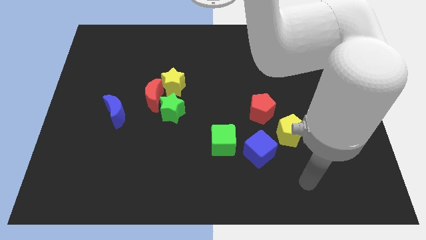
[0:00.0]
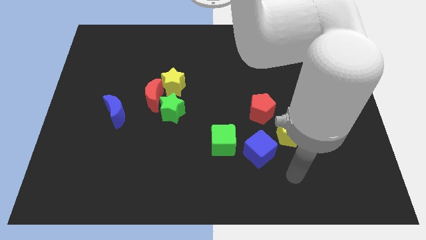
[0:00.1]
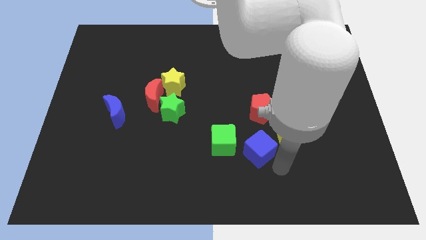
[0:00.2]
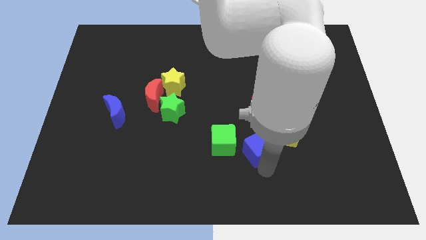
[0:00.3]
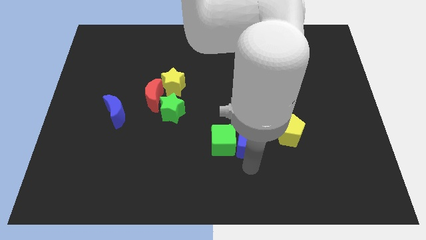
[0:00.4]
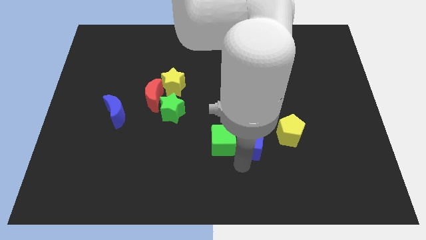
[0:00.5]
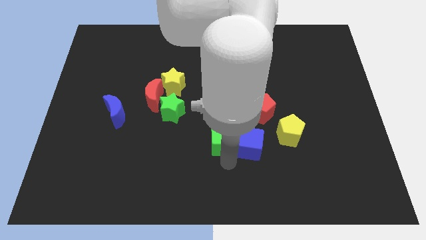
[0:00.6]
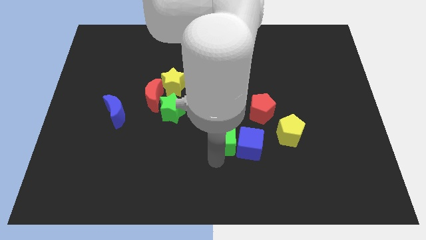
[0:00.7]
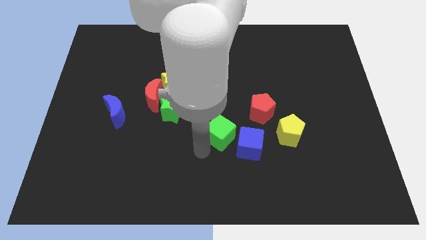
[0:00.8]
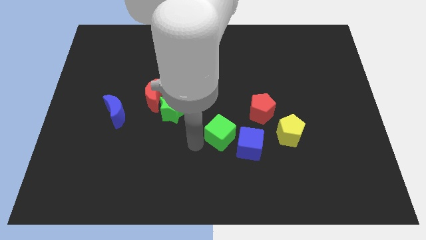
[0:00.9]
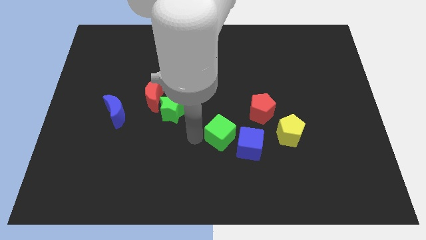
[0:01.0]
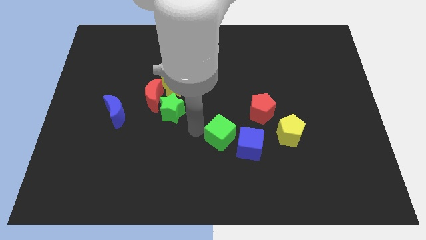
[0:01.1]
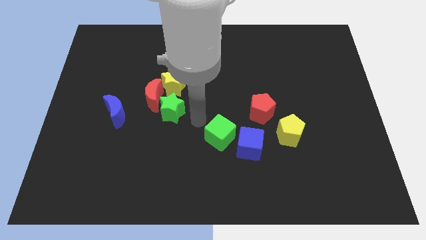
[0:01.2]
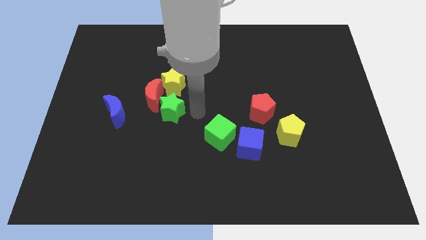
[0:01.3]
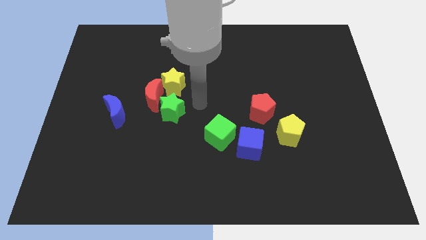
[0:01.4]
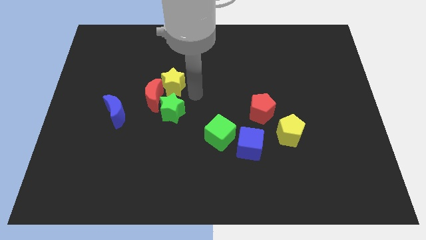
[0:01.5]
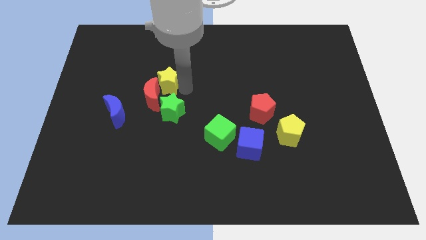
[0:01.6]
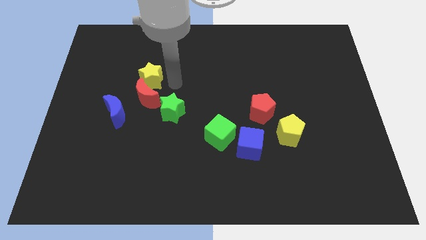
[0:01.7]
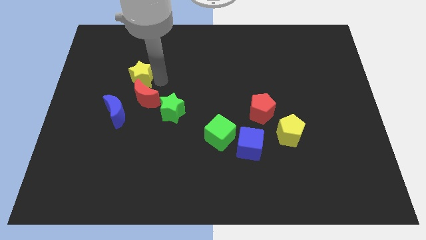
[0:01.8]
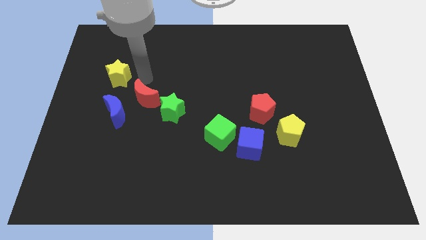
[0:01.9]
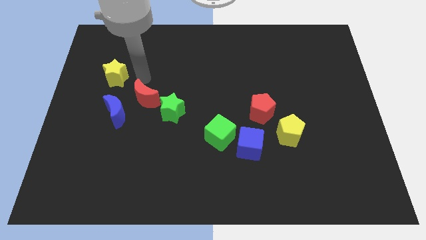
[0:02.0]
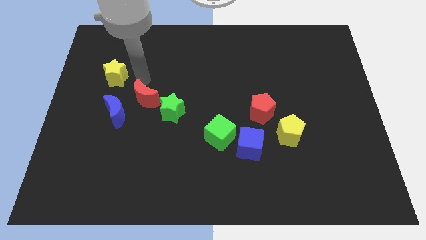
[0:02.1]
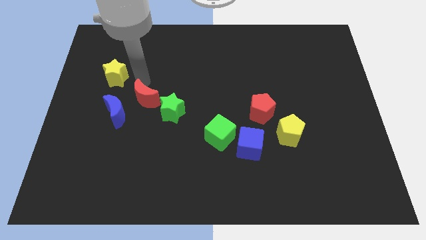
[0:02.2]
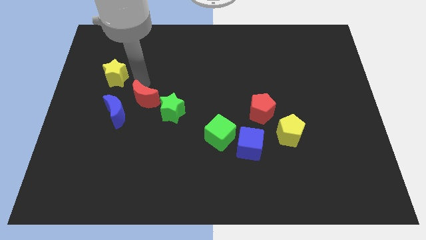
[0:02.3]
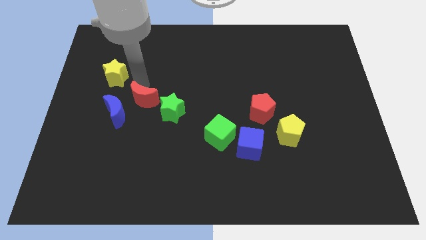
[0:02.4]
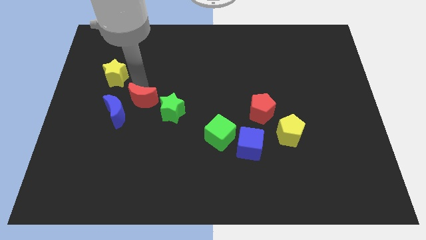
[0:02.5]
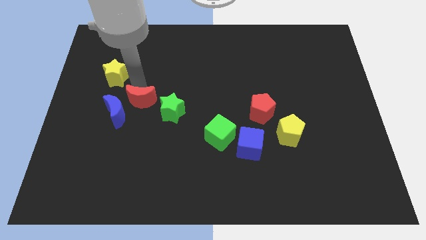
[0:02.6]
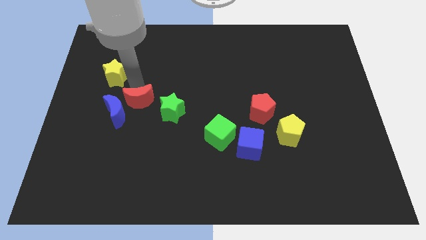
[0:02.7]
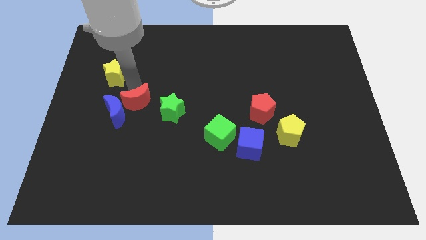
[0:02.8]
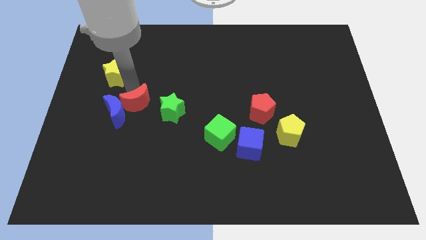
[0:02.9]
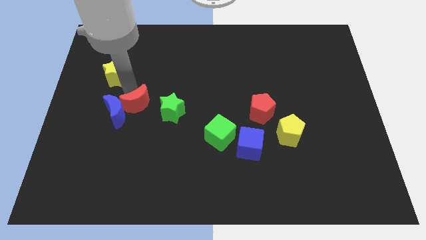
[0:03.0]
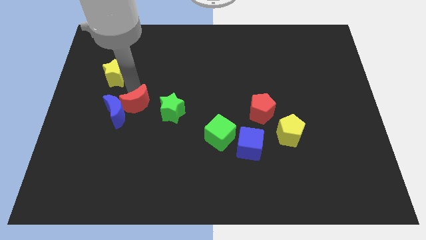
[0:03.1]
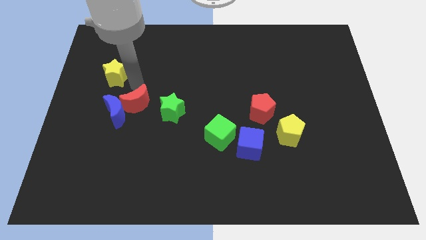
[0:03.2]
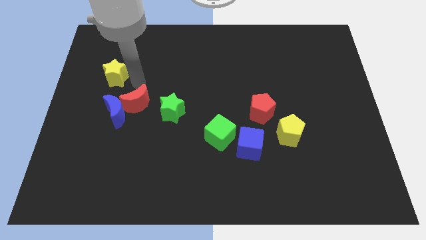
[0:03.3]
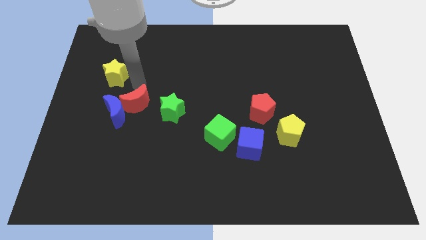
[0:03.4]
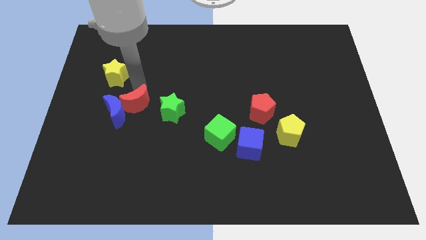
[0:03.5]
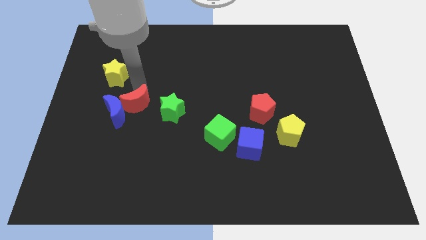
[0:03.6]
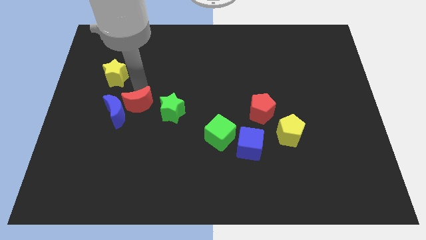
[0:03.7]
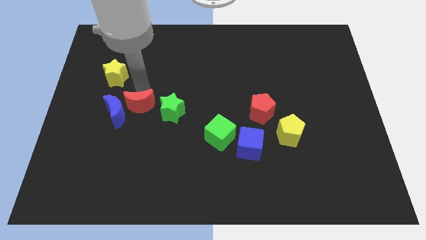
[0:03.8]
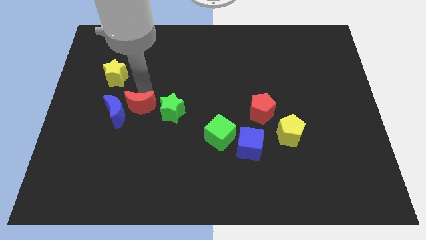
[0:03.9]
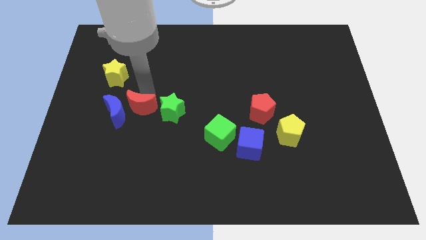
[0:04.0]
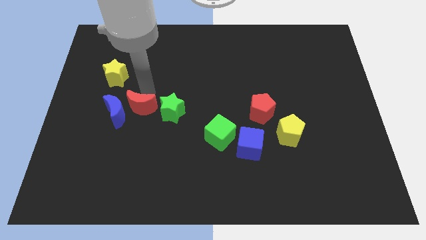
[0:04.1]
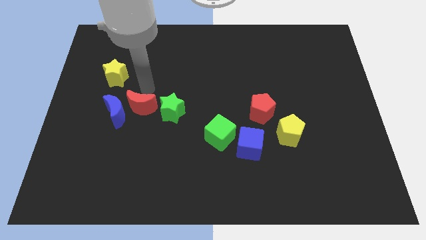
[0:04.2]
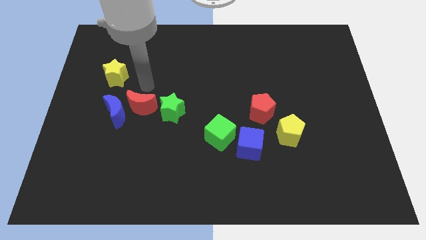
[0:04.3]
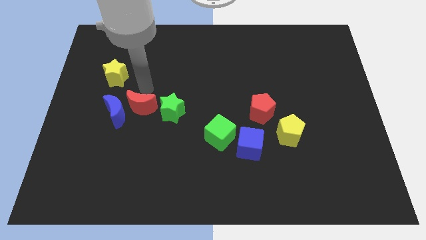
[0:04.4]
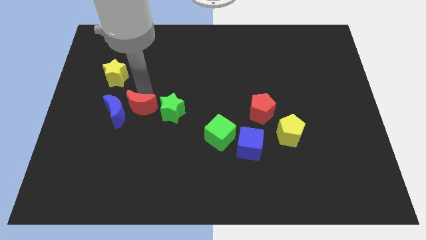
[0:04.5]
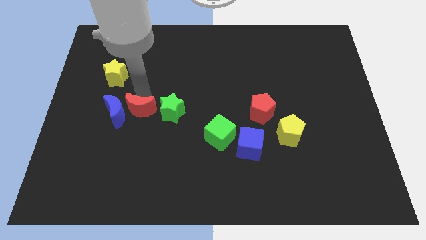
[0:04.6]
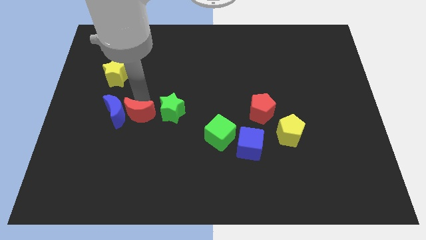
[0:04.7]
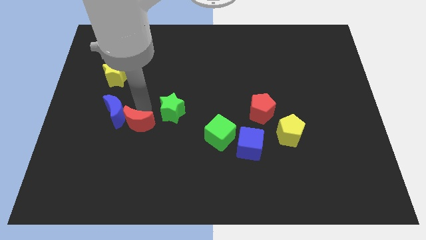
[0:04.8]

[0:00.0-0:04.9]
push the red moon downwards and left a bit

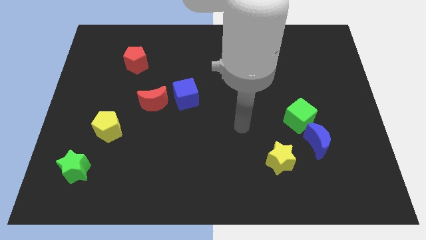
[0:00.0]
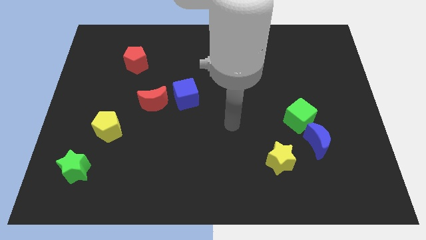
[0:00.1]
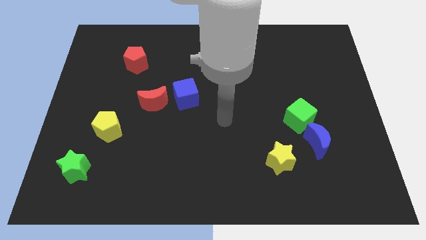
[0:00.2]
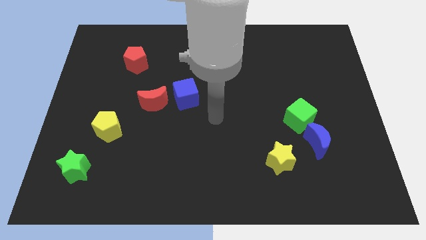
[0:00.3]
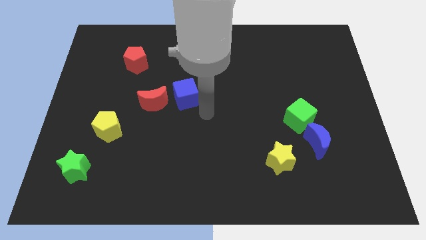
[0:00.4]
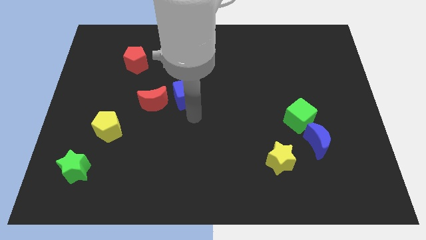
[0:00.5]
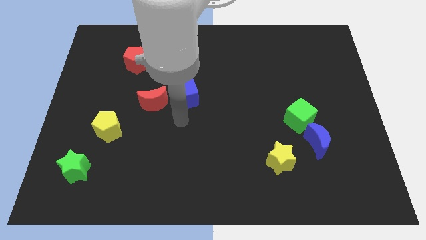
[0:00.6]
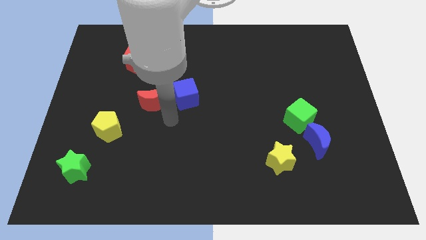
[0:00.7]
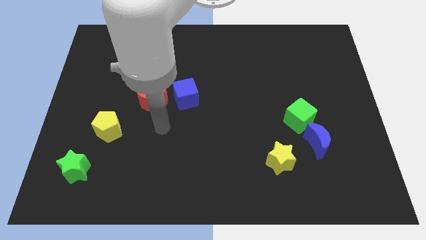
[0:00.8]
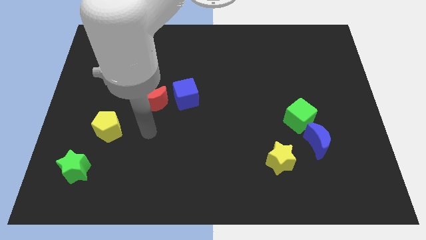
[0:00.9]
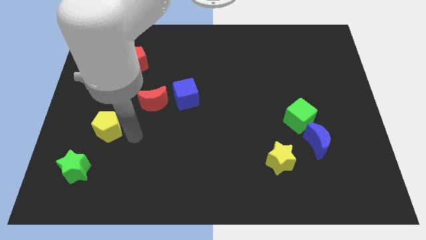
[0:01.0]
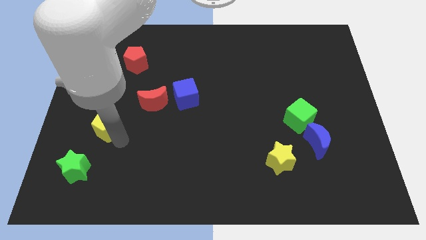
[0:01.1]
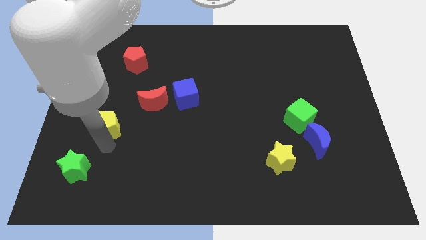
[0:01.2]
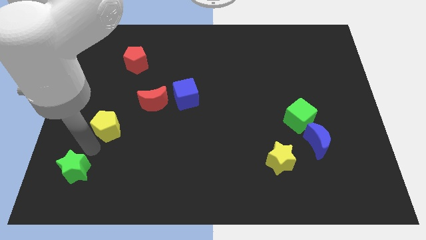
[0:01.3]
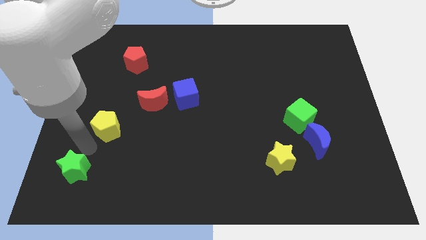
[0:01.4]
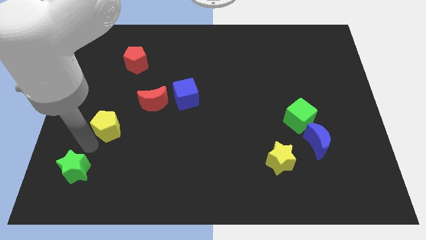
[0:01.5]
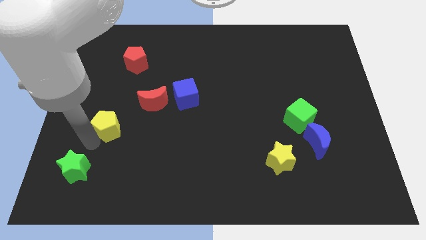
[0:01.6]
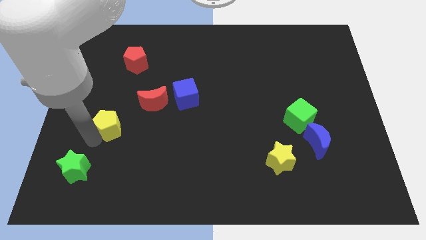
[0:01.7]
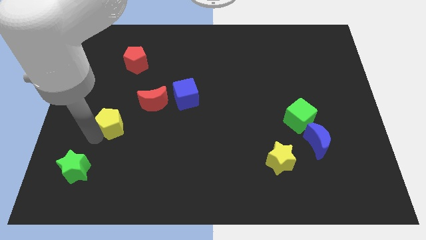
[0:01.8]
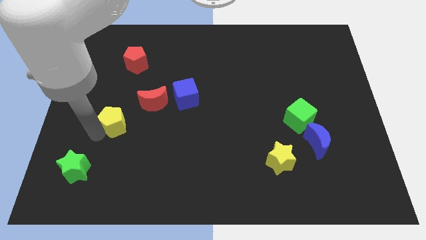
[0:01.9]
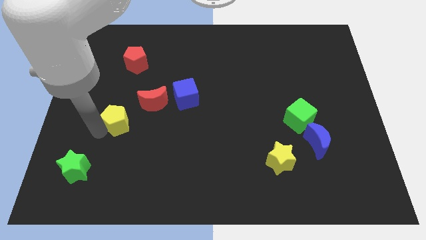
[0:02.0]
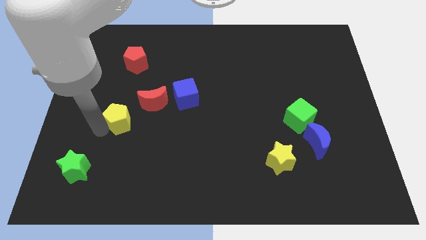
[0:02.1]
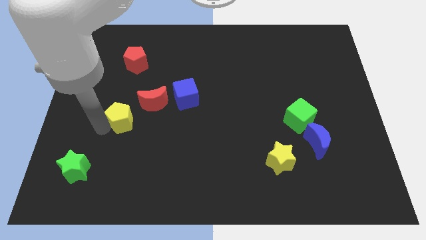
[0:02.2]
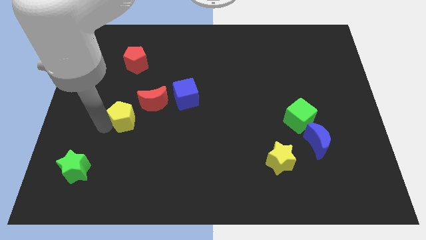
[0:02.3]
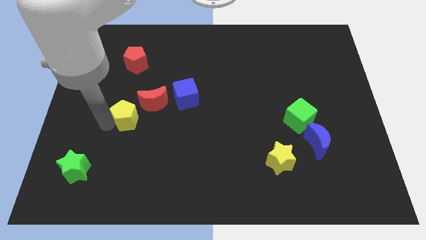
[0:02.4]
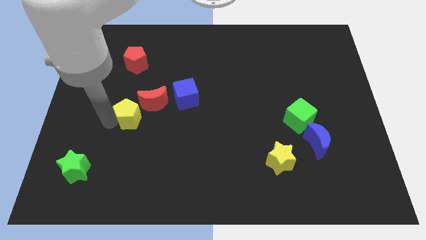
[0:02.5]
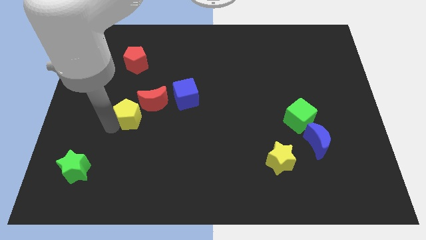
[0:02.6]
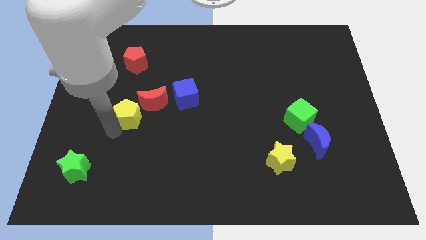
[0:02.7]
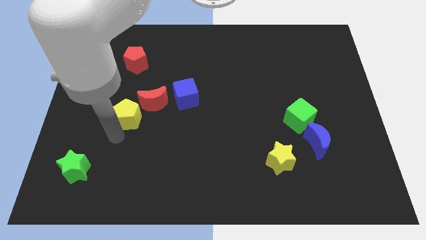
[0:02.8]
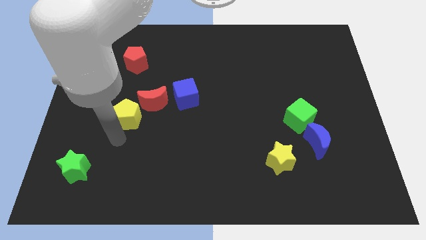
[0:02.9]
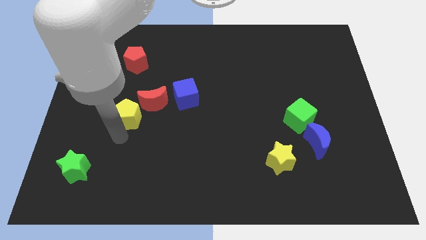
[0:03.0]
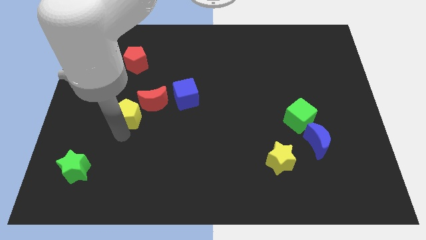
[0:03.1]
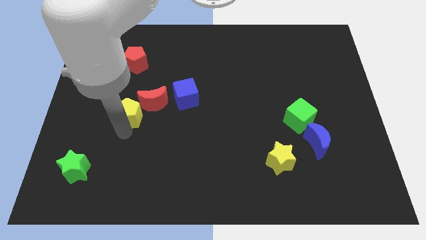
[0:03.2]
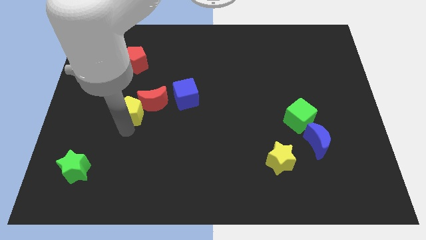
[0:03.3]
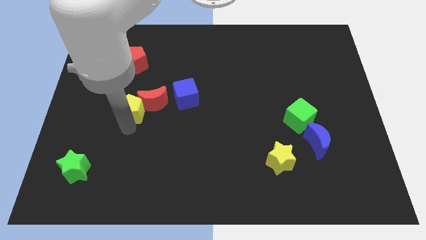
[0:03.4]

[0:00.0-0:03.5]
move the yellow pentagon upwards and to the right diagonally a bit
